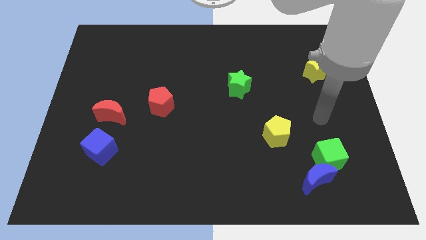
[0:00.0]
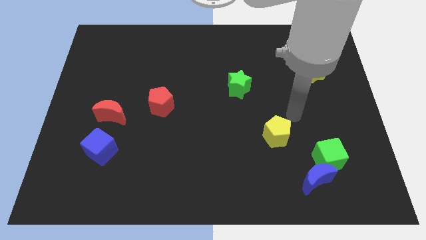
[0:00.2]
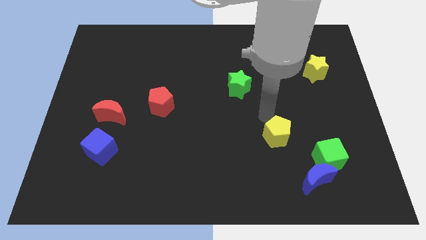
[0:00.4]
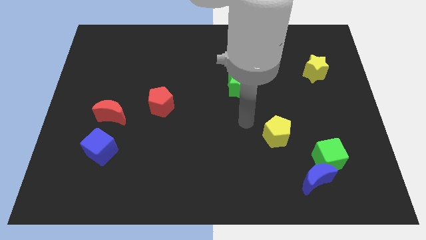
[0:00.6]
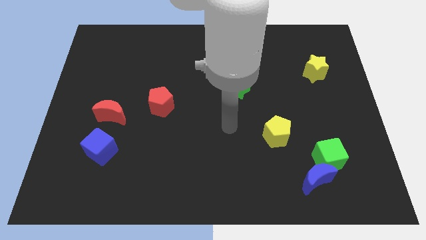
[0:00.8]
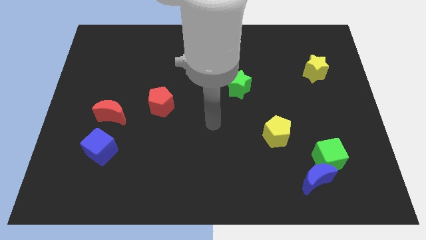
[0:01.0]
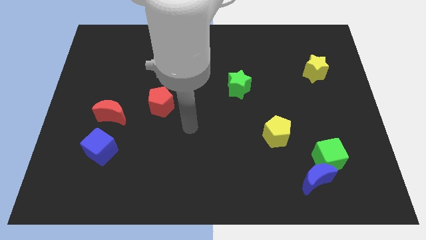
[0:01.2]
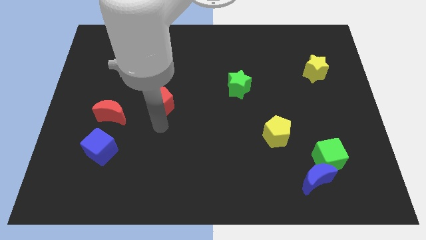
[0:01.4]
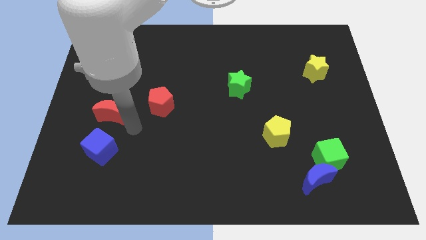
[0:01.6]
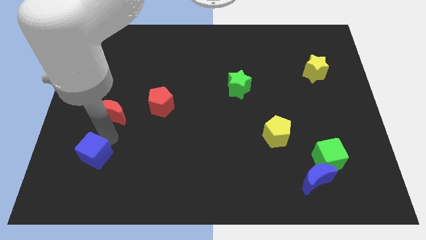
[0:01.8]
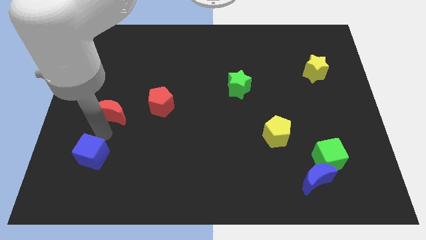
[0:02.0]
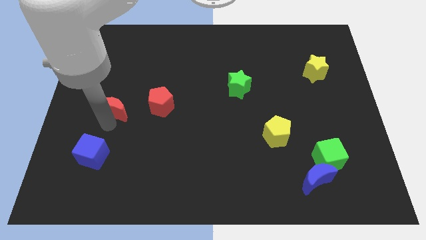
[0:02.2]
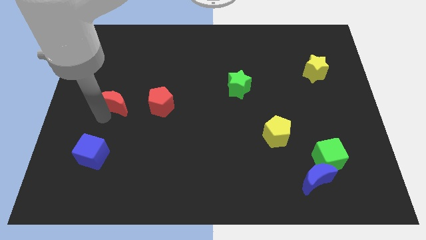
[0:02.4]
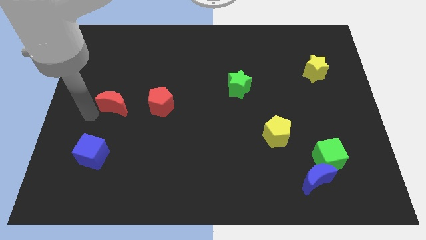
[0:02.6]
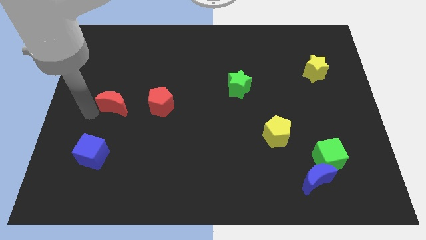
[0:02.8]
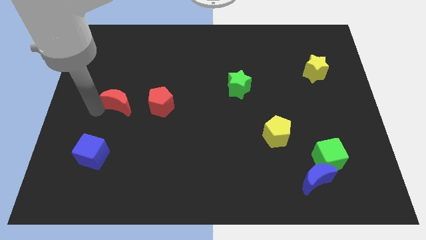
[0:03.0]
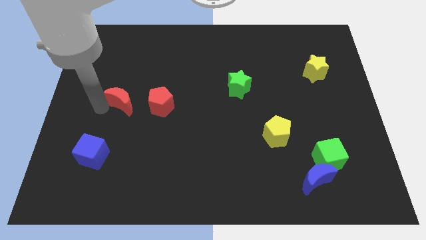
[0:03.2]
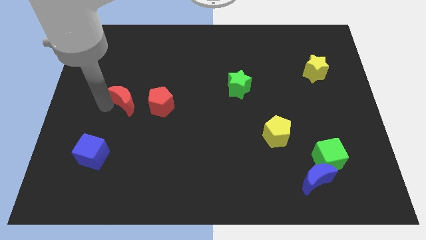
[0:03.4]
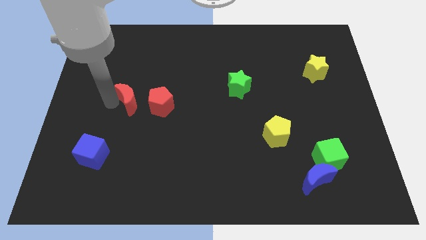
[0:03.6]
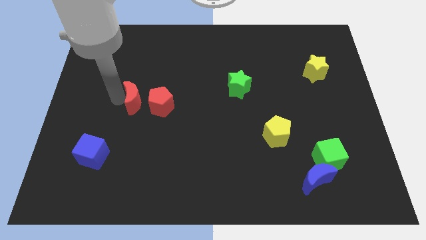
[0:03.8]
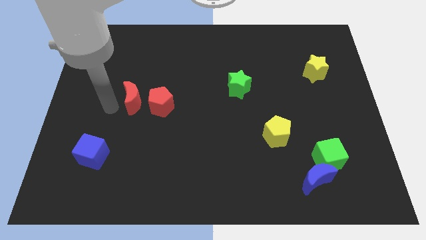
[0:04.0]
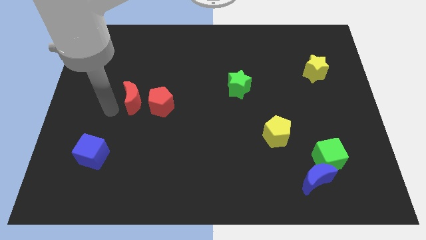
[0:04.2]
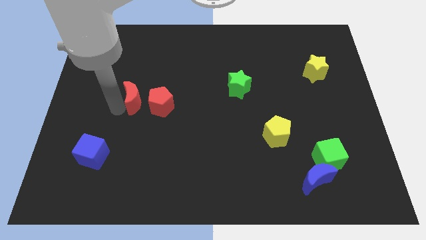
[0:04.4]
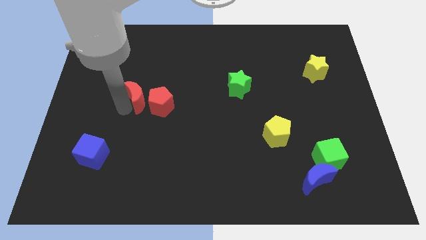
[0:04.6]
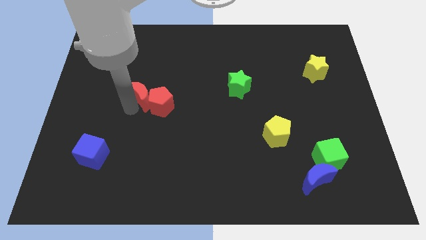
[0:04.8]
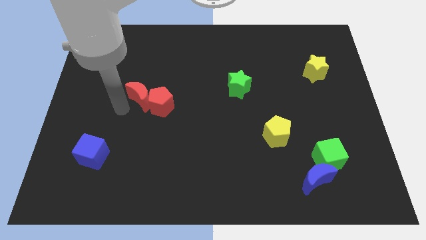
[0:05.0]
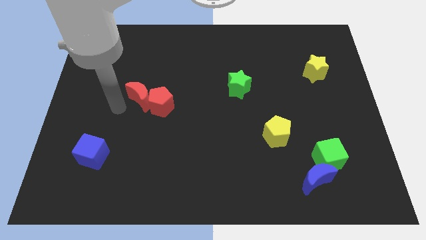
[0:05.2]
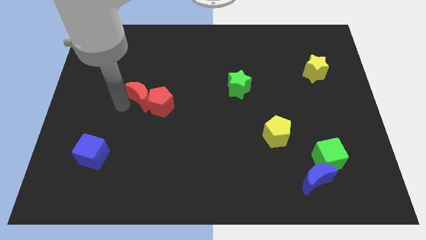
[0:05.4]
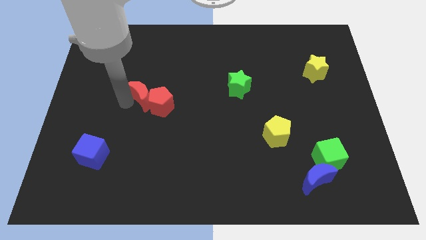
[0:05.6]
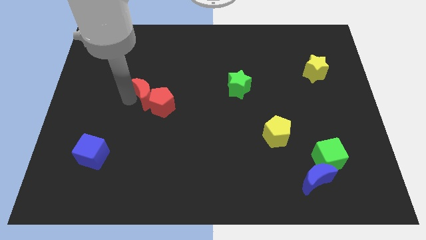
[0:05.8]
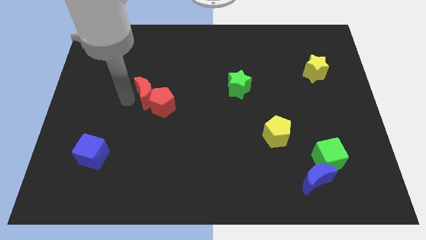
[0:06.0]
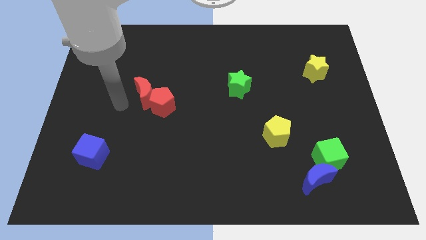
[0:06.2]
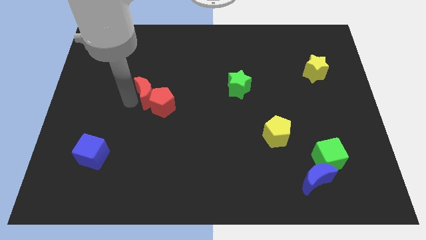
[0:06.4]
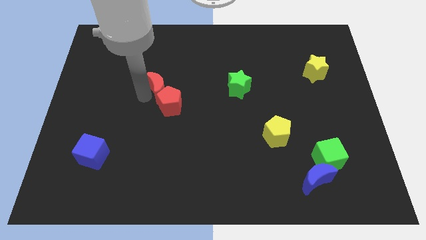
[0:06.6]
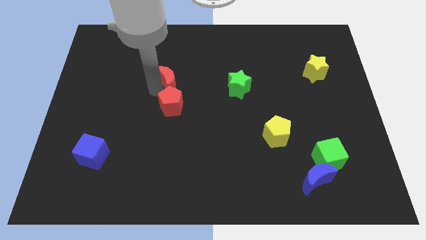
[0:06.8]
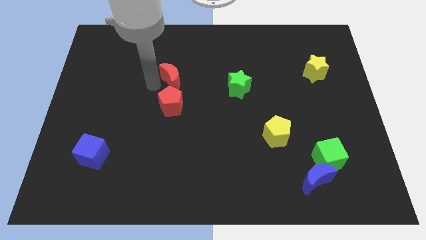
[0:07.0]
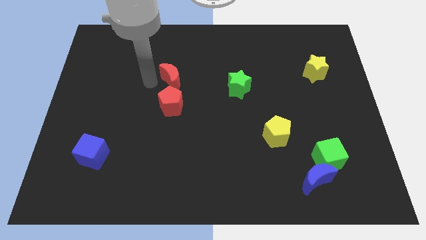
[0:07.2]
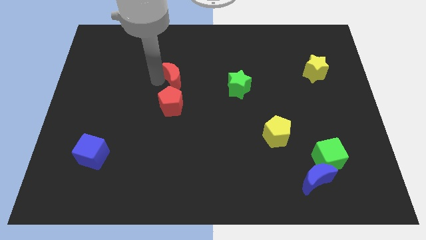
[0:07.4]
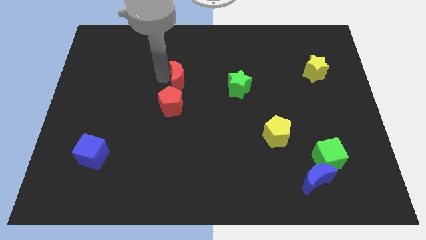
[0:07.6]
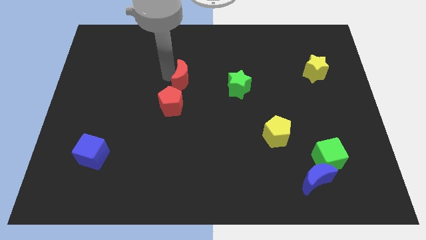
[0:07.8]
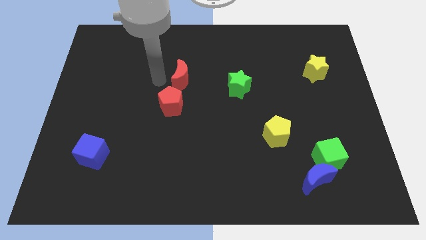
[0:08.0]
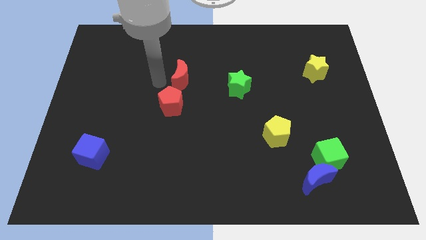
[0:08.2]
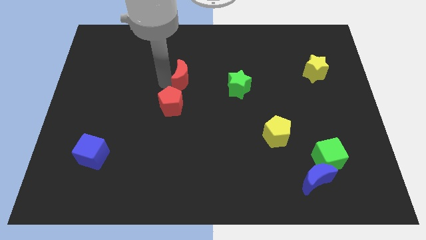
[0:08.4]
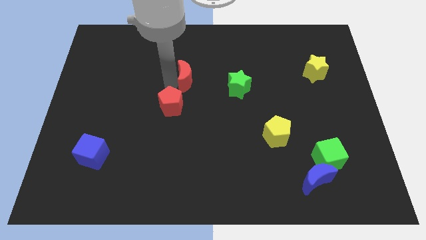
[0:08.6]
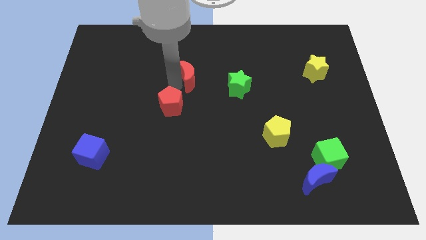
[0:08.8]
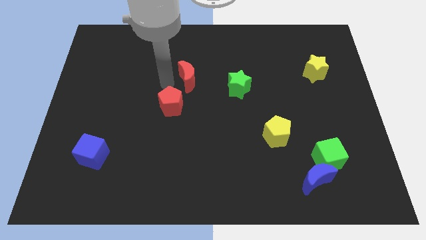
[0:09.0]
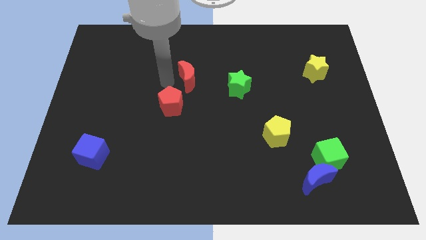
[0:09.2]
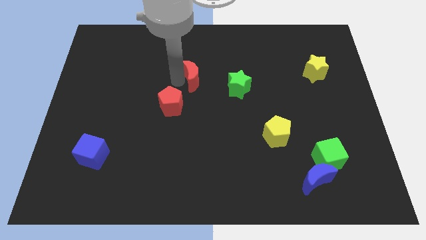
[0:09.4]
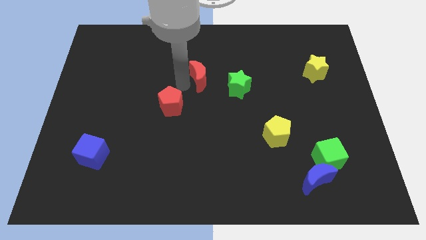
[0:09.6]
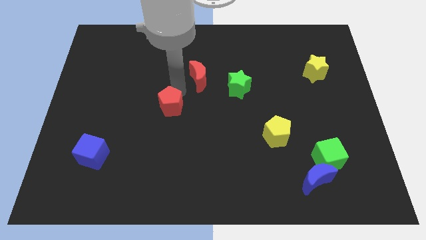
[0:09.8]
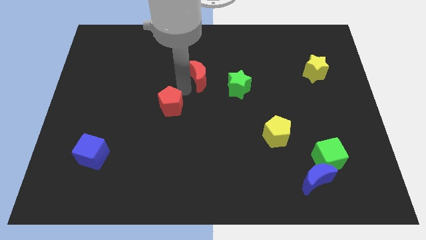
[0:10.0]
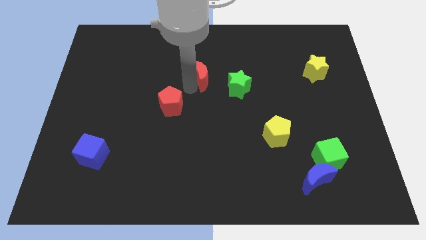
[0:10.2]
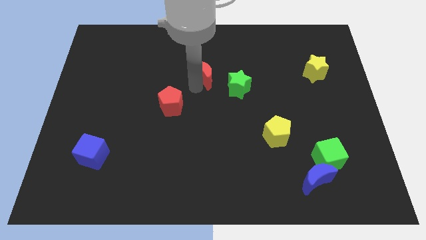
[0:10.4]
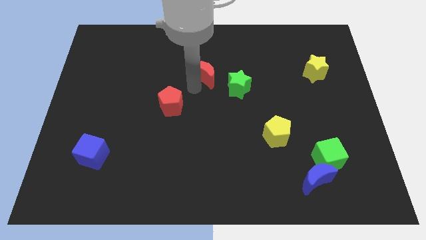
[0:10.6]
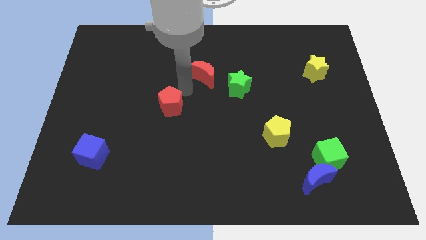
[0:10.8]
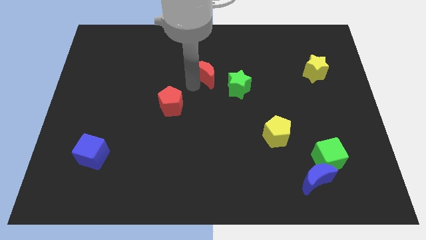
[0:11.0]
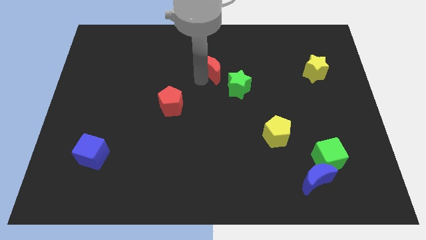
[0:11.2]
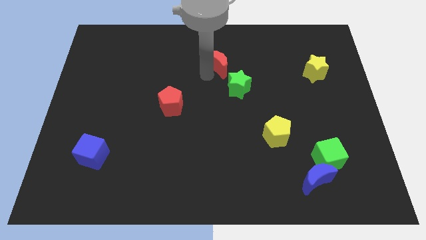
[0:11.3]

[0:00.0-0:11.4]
move the red moon to the top of the green star

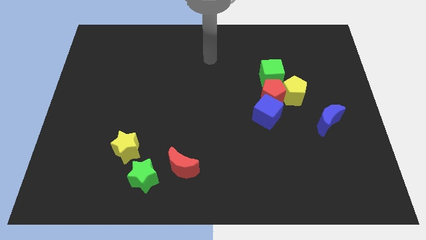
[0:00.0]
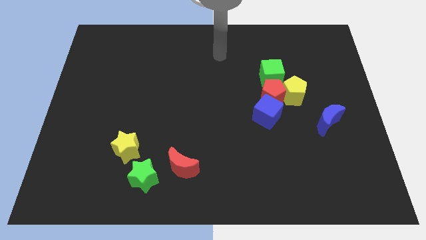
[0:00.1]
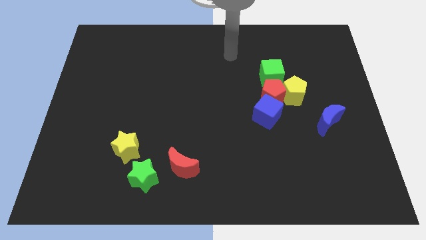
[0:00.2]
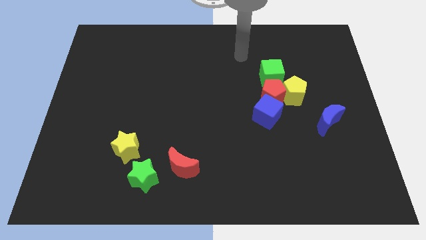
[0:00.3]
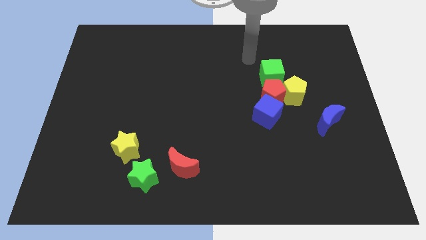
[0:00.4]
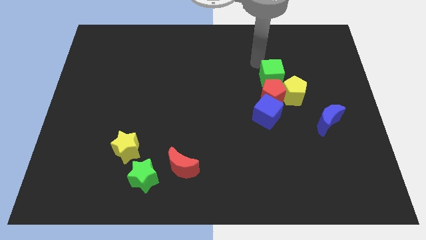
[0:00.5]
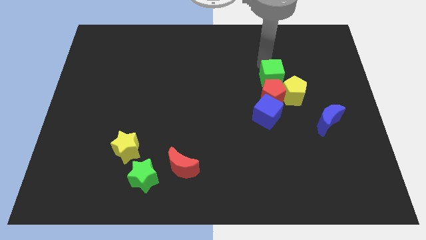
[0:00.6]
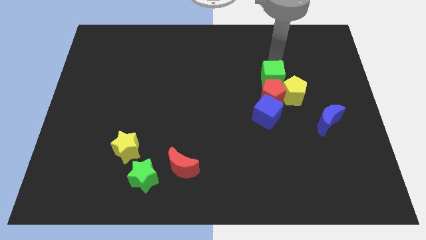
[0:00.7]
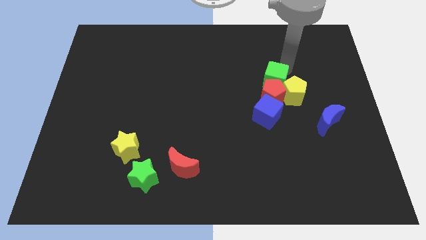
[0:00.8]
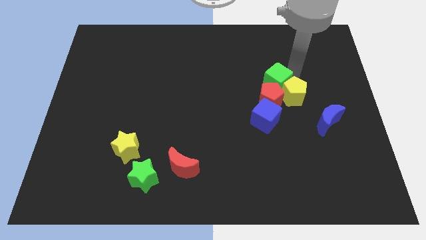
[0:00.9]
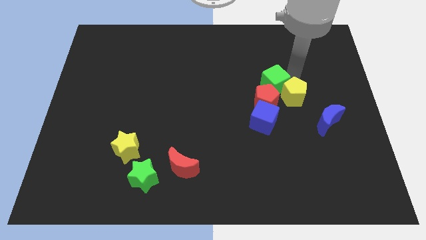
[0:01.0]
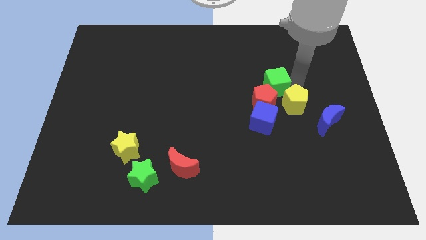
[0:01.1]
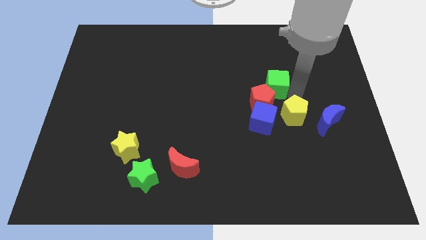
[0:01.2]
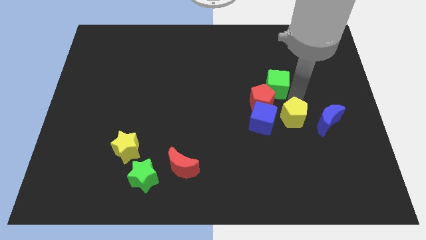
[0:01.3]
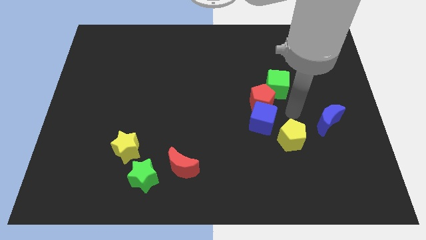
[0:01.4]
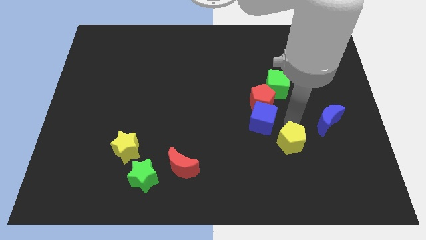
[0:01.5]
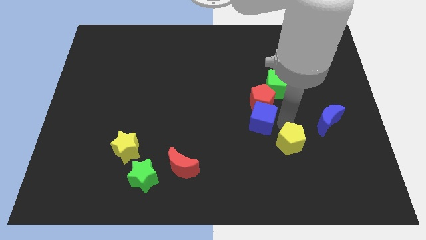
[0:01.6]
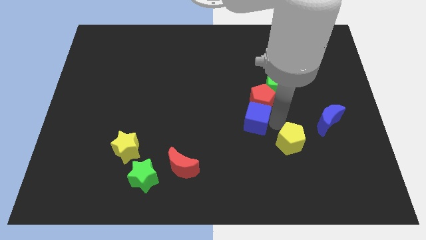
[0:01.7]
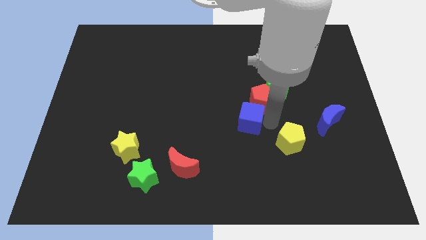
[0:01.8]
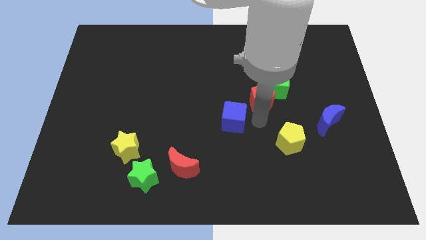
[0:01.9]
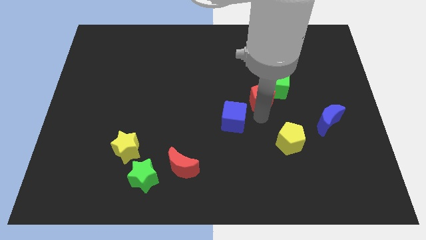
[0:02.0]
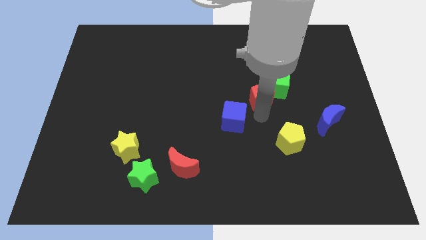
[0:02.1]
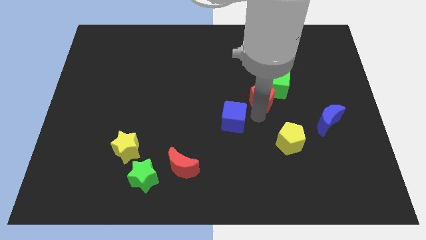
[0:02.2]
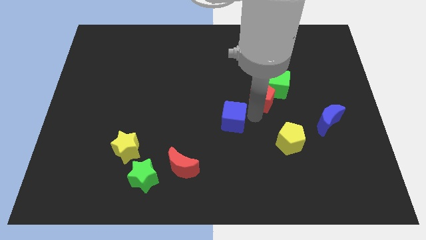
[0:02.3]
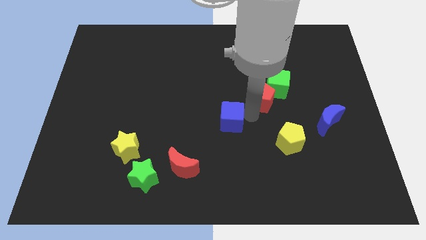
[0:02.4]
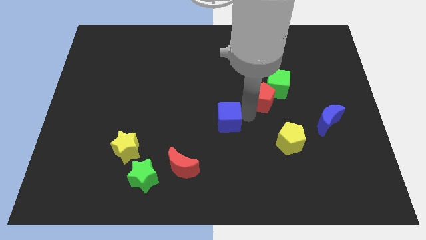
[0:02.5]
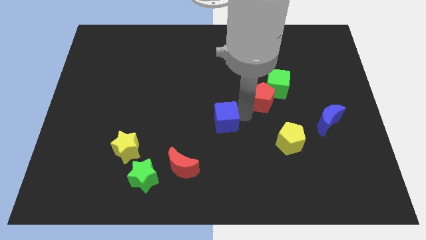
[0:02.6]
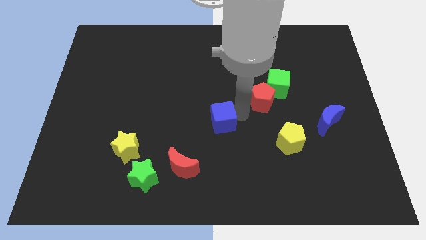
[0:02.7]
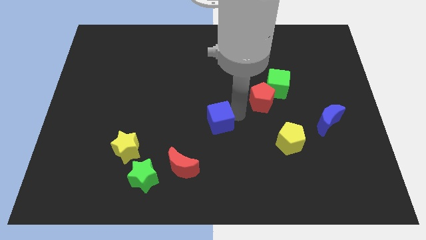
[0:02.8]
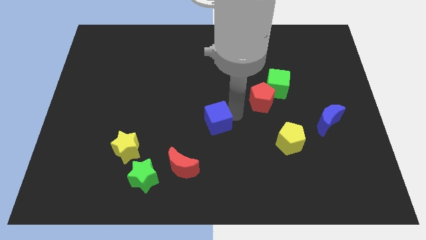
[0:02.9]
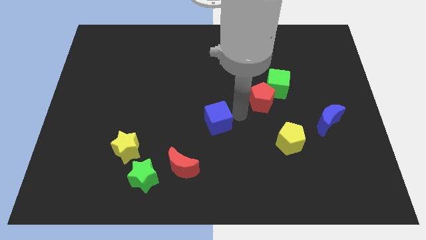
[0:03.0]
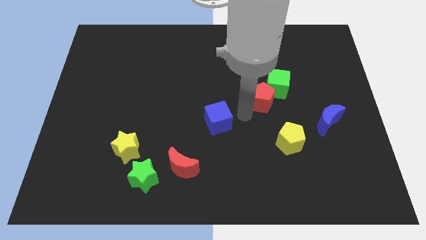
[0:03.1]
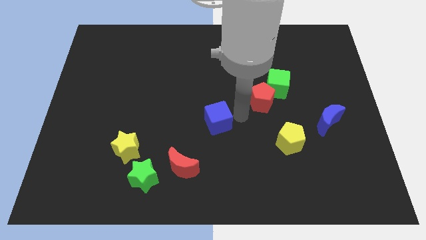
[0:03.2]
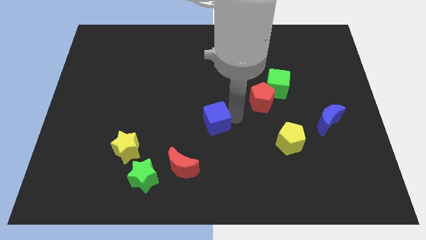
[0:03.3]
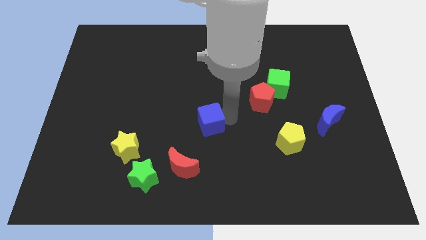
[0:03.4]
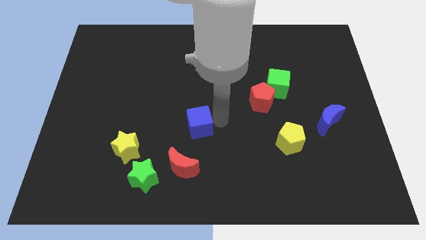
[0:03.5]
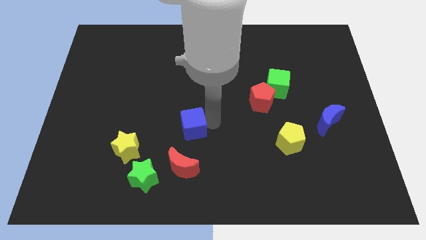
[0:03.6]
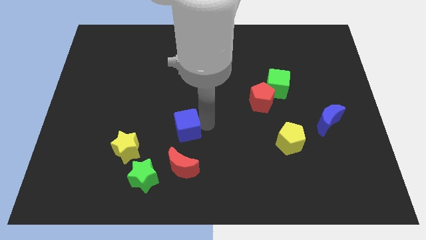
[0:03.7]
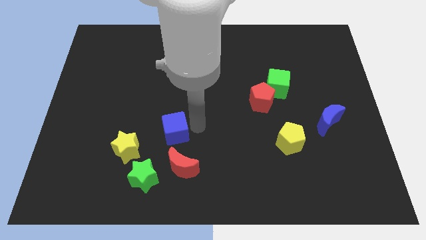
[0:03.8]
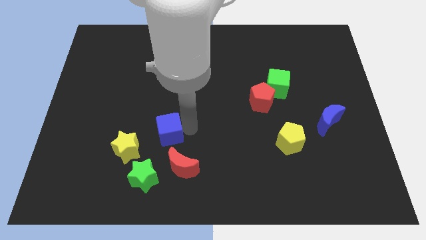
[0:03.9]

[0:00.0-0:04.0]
move the blue cube above the green star
